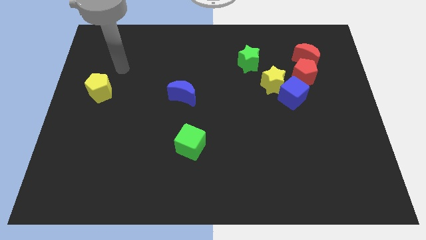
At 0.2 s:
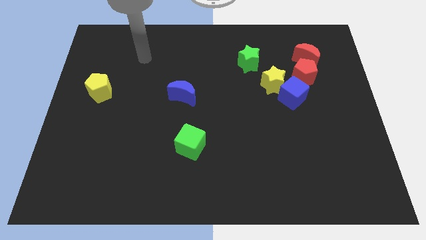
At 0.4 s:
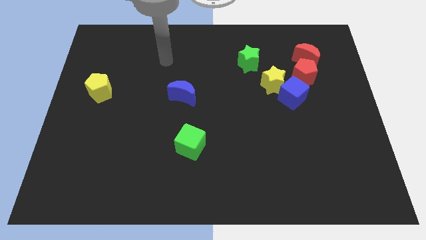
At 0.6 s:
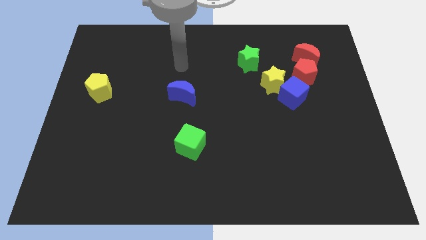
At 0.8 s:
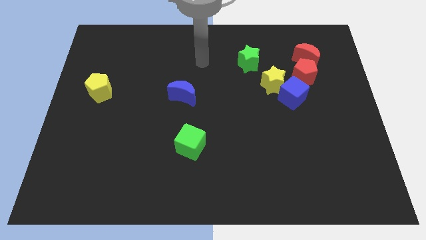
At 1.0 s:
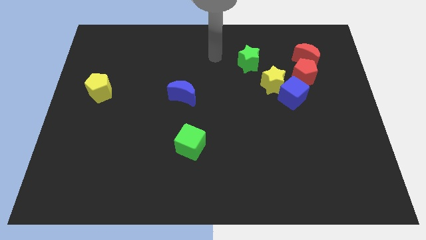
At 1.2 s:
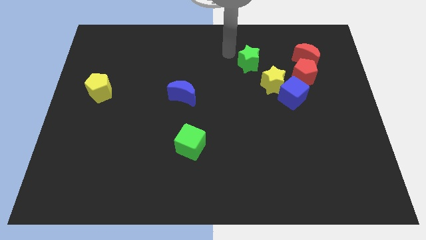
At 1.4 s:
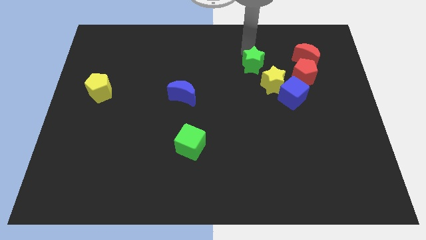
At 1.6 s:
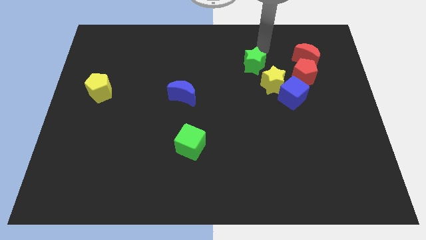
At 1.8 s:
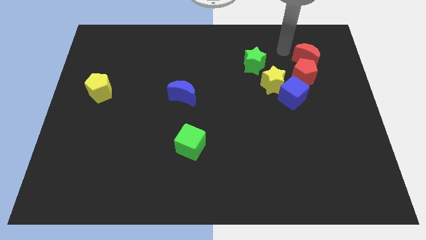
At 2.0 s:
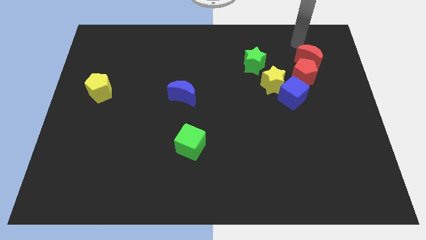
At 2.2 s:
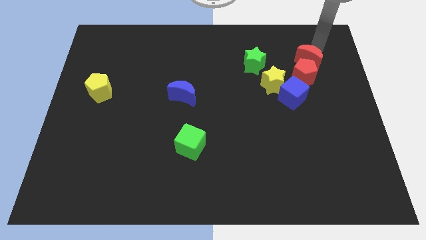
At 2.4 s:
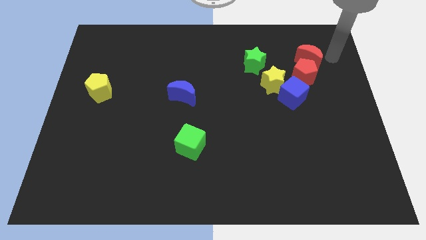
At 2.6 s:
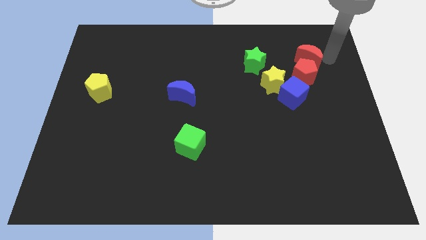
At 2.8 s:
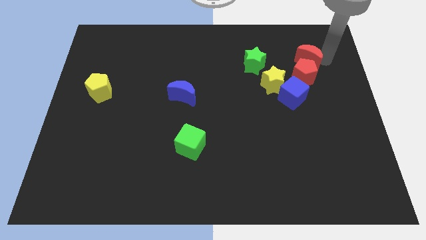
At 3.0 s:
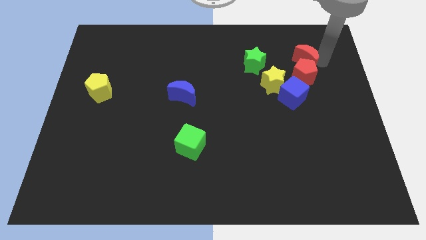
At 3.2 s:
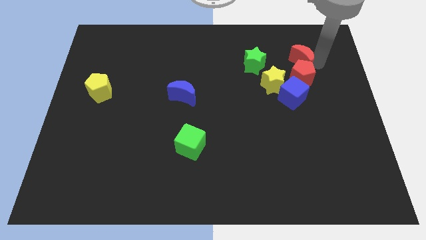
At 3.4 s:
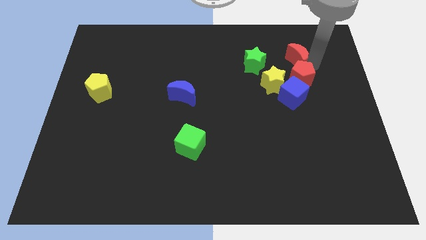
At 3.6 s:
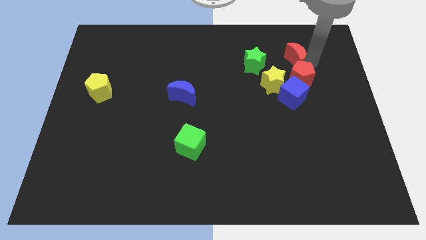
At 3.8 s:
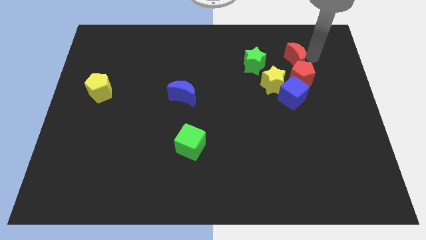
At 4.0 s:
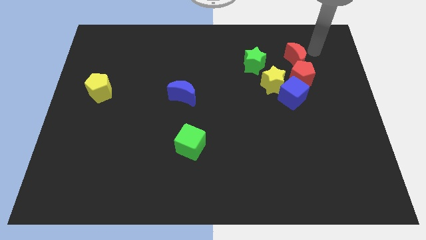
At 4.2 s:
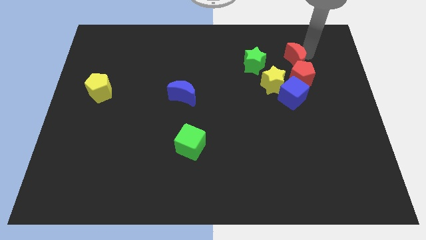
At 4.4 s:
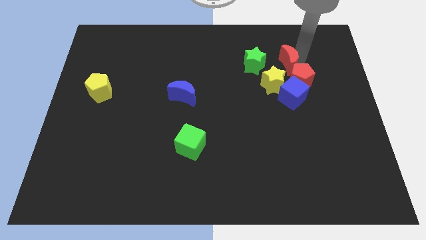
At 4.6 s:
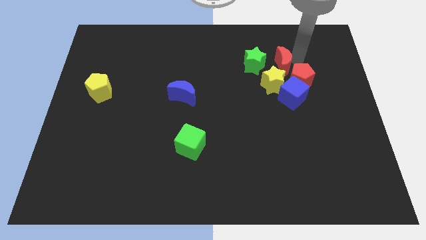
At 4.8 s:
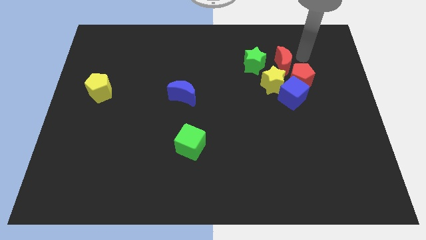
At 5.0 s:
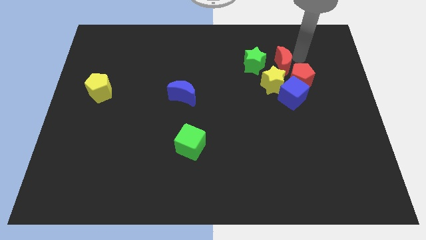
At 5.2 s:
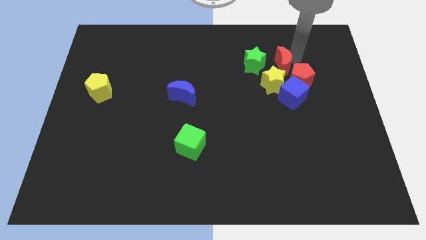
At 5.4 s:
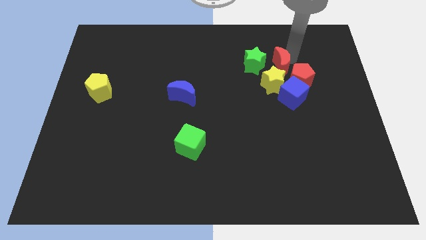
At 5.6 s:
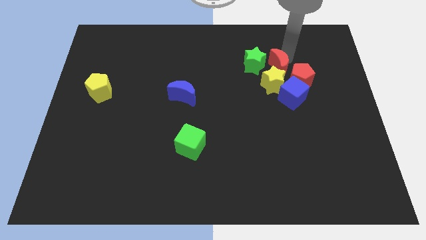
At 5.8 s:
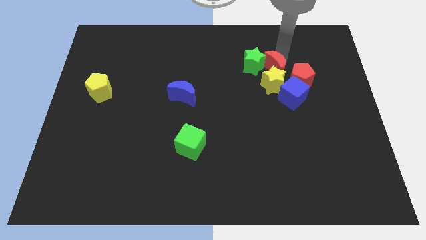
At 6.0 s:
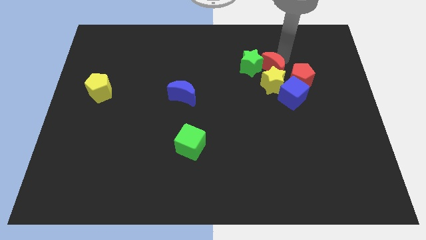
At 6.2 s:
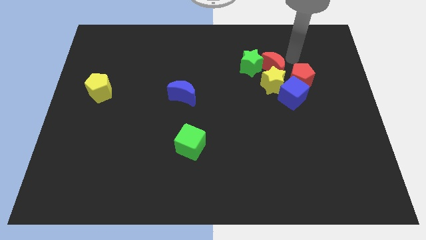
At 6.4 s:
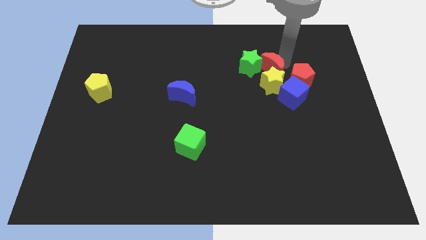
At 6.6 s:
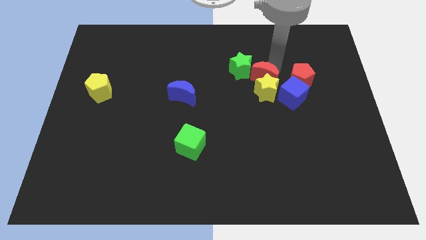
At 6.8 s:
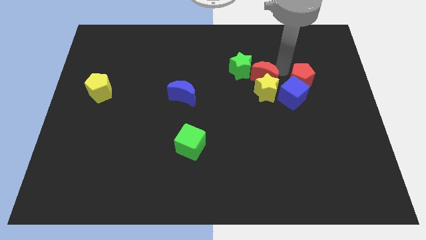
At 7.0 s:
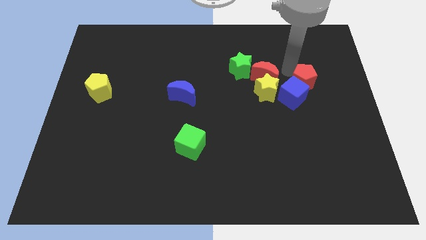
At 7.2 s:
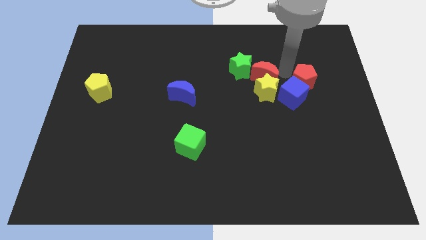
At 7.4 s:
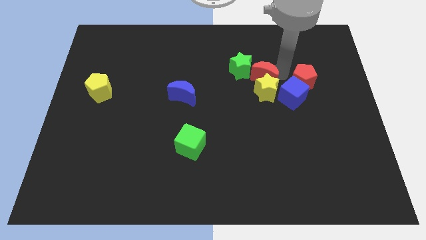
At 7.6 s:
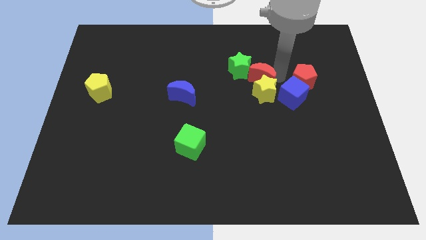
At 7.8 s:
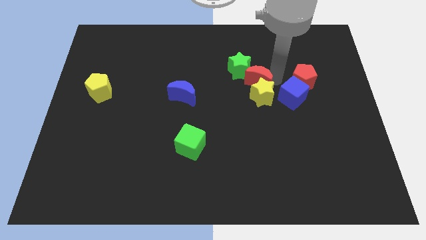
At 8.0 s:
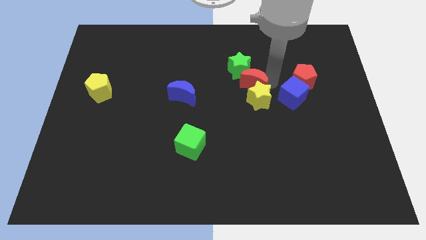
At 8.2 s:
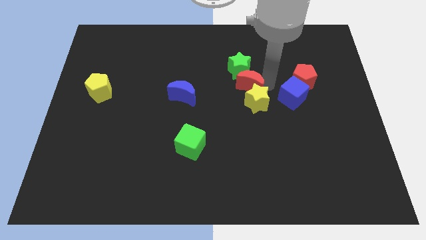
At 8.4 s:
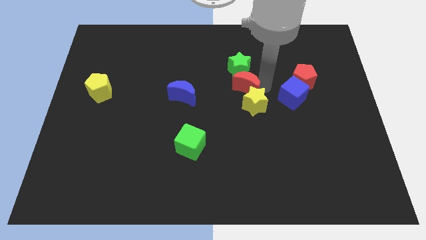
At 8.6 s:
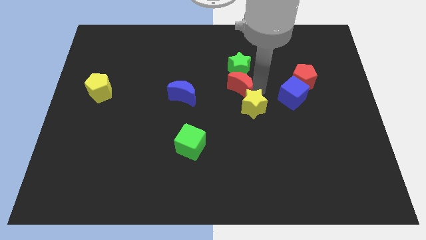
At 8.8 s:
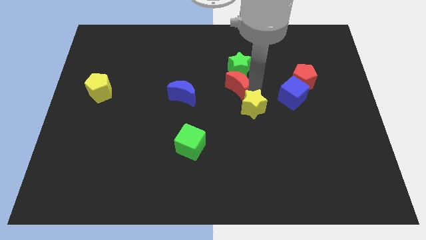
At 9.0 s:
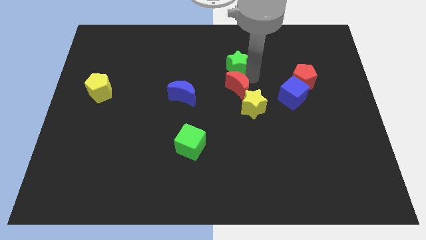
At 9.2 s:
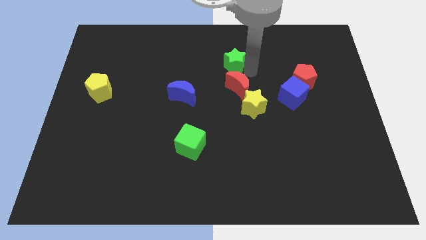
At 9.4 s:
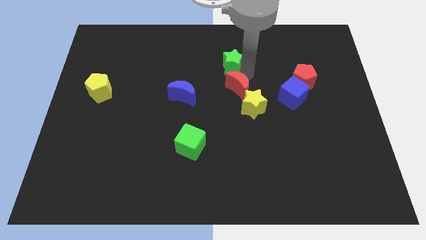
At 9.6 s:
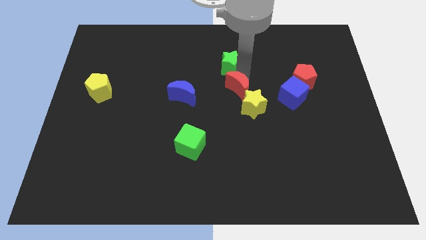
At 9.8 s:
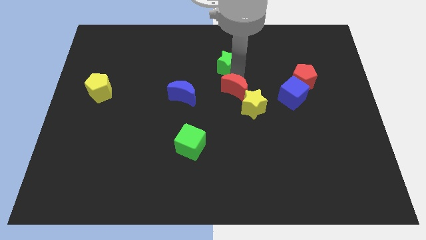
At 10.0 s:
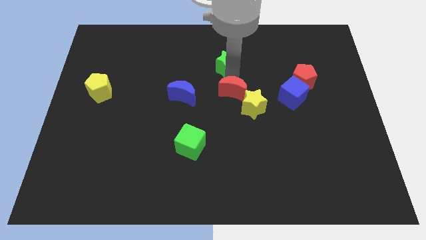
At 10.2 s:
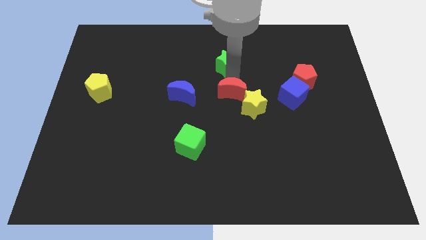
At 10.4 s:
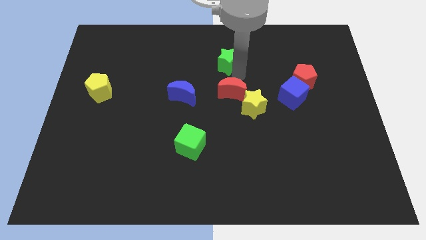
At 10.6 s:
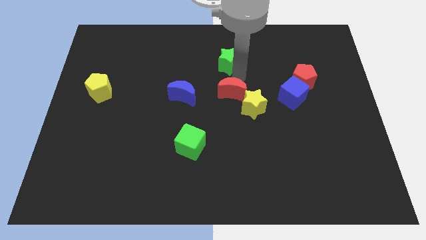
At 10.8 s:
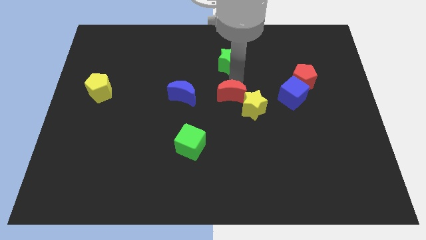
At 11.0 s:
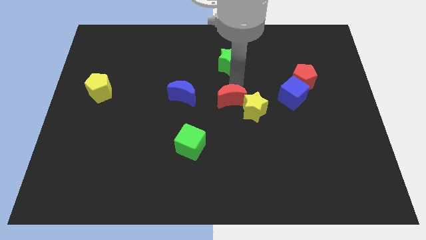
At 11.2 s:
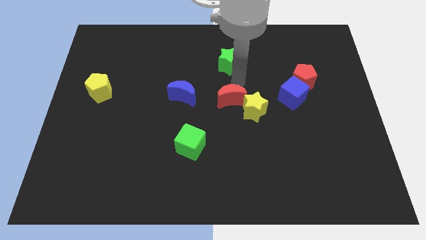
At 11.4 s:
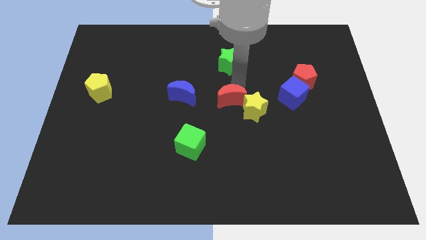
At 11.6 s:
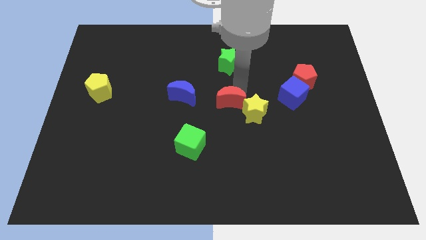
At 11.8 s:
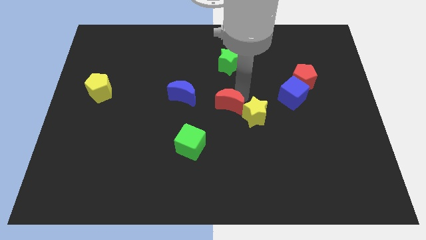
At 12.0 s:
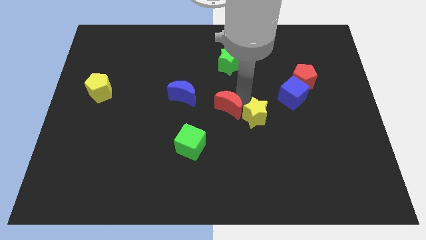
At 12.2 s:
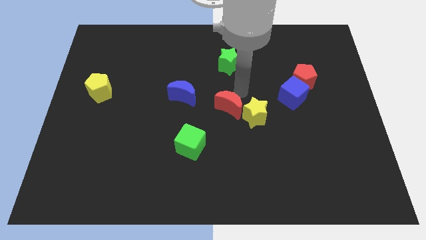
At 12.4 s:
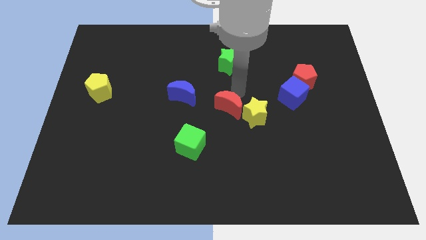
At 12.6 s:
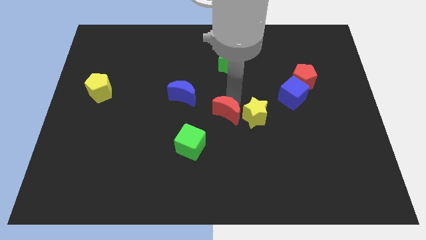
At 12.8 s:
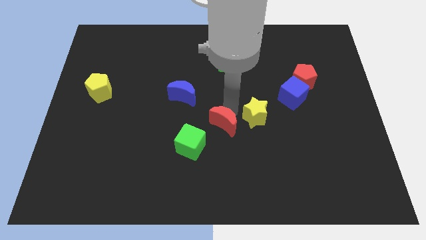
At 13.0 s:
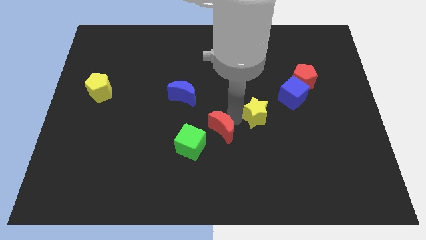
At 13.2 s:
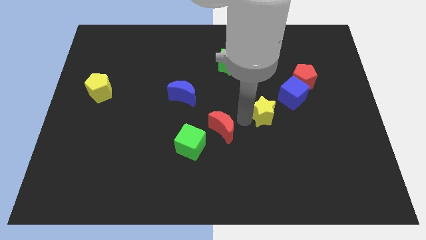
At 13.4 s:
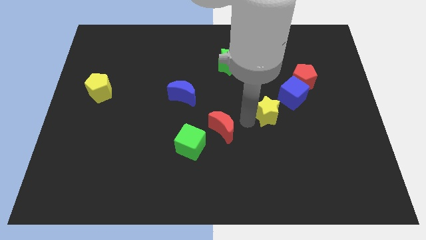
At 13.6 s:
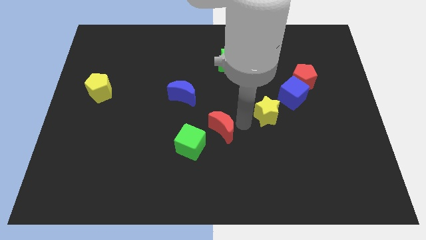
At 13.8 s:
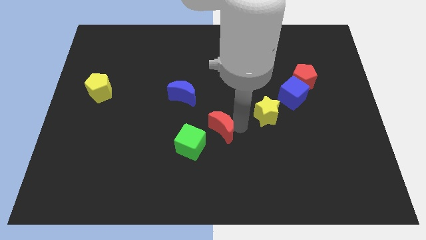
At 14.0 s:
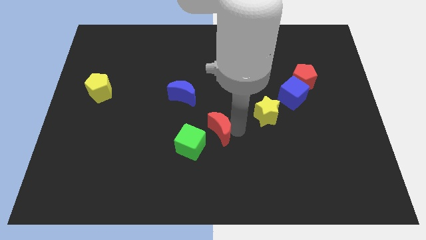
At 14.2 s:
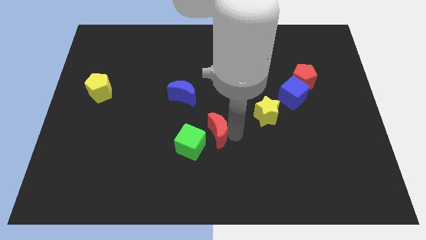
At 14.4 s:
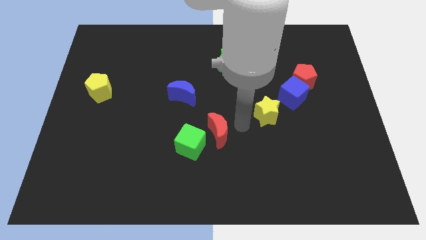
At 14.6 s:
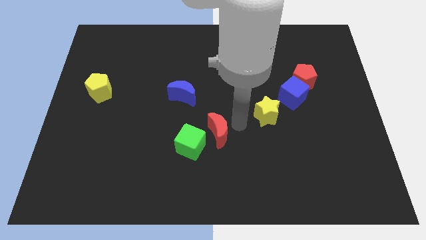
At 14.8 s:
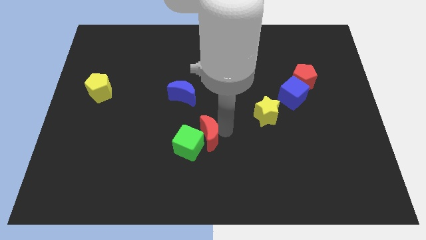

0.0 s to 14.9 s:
slide the red moon to the green cube

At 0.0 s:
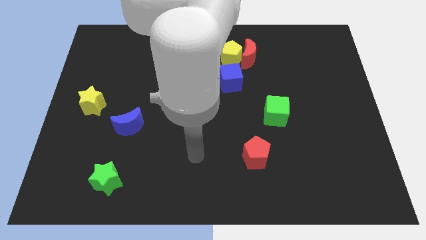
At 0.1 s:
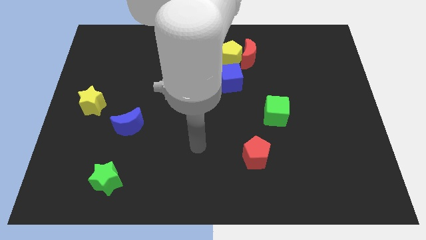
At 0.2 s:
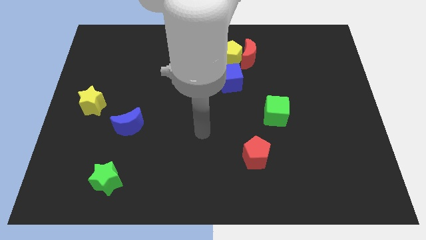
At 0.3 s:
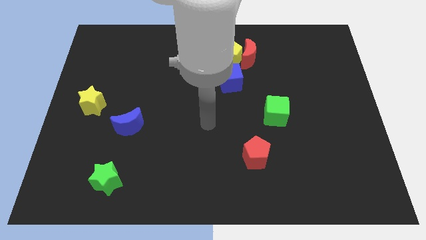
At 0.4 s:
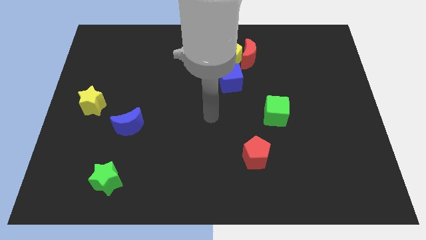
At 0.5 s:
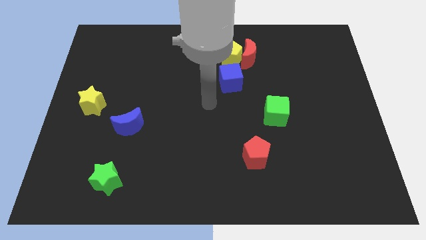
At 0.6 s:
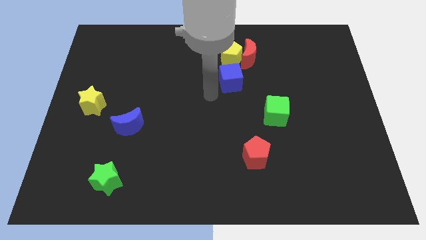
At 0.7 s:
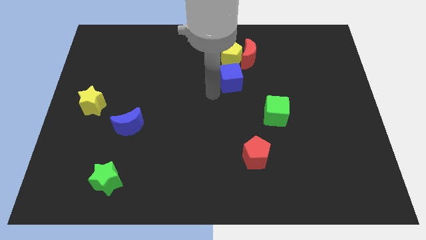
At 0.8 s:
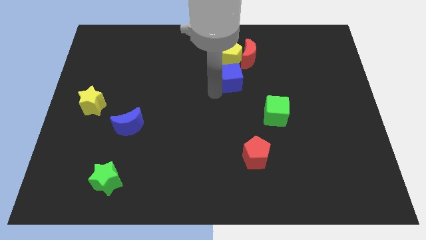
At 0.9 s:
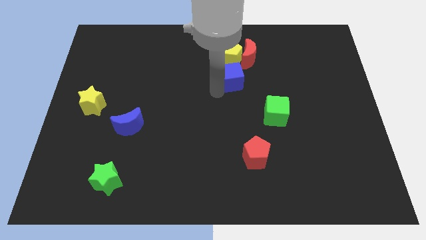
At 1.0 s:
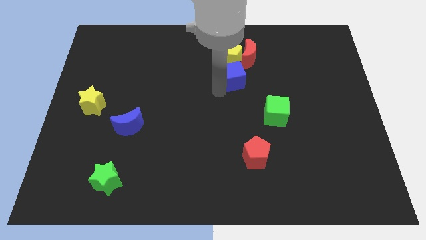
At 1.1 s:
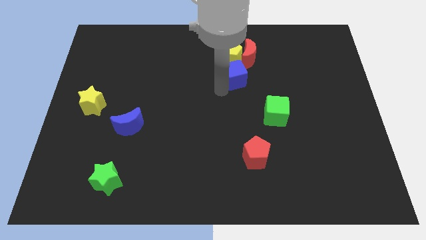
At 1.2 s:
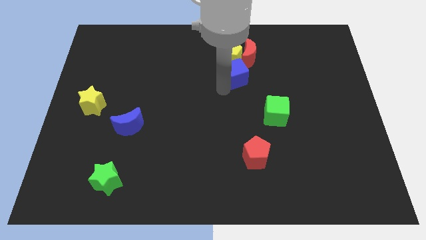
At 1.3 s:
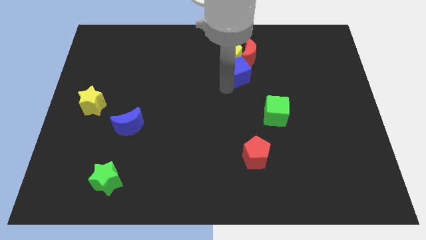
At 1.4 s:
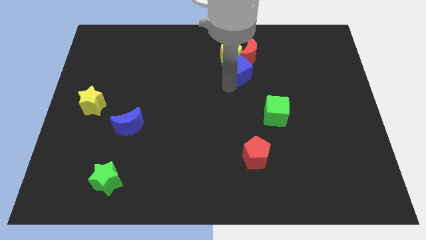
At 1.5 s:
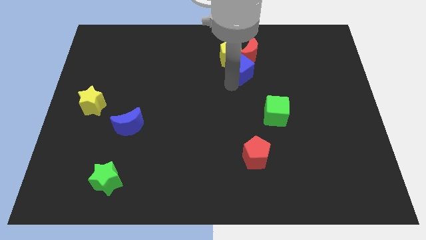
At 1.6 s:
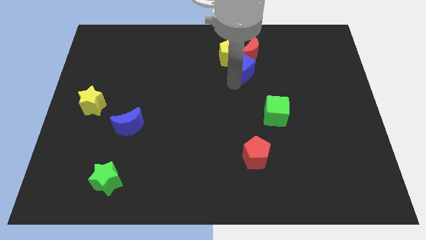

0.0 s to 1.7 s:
push the blue cube close to the red moon
